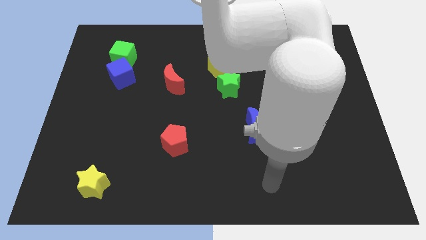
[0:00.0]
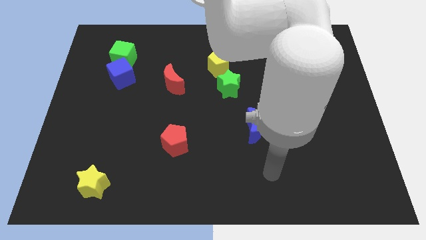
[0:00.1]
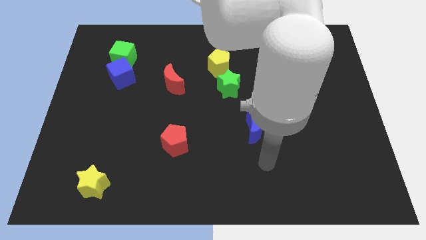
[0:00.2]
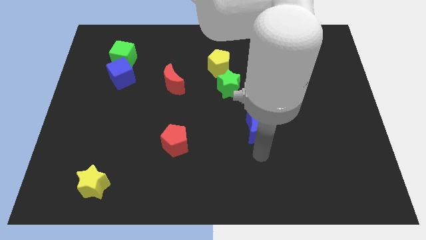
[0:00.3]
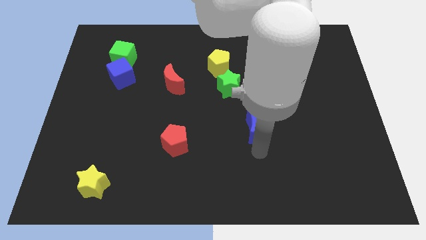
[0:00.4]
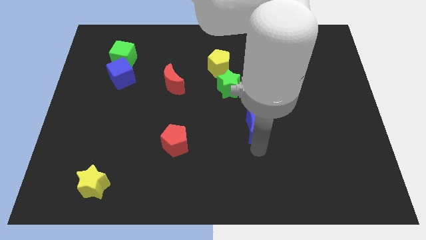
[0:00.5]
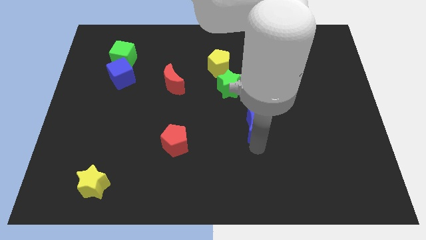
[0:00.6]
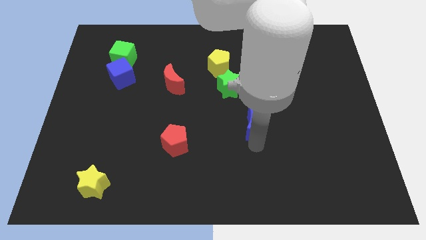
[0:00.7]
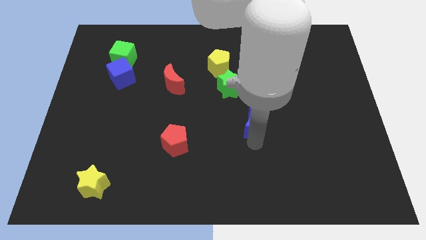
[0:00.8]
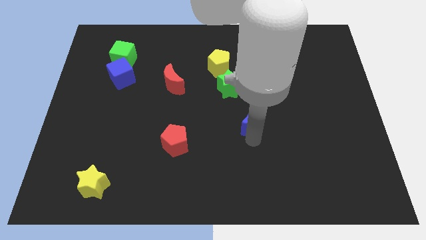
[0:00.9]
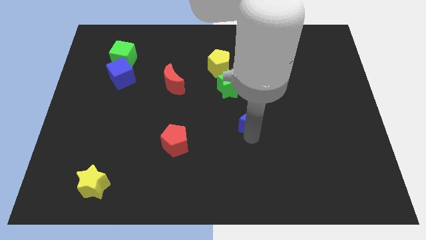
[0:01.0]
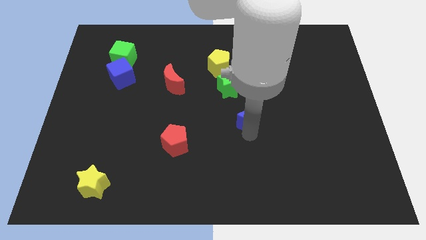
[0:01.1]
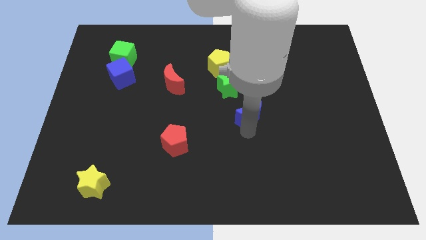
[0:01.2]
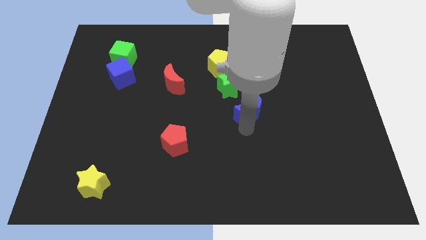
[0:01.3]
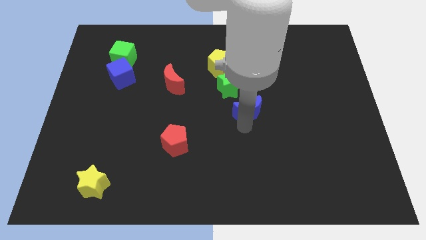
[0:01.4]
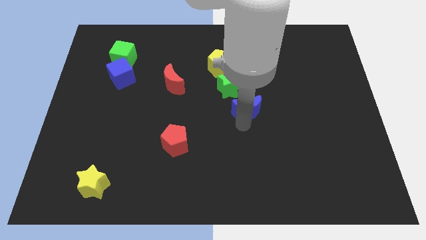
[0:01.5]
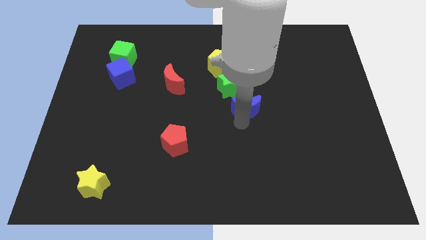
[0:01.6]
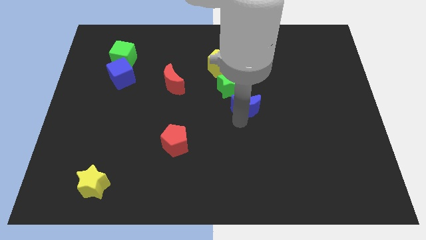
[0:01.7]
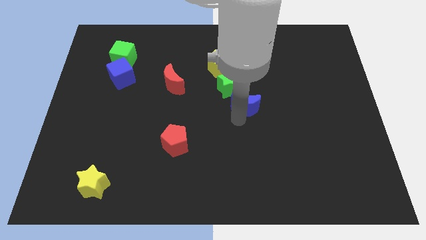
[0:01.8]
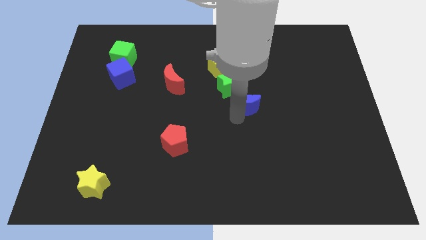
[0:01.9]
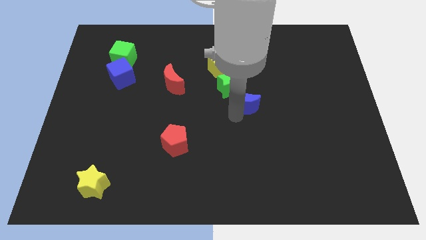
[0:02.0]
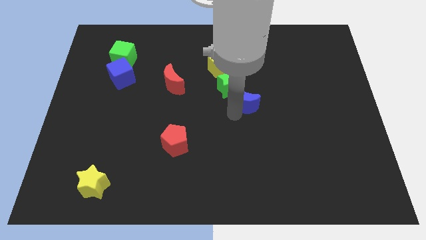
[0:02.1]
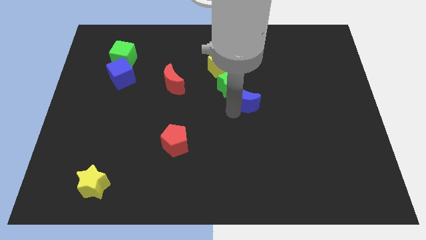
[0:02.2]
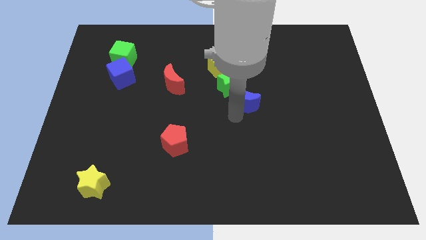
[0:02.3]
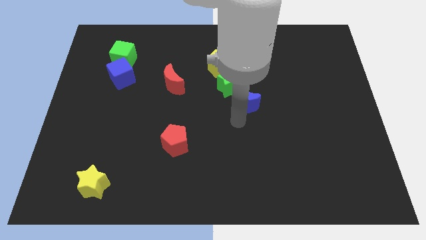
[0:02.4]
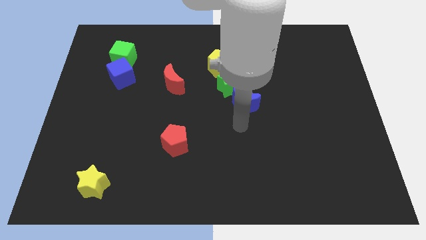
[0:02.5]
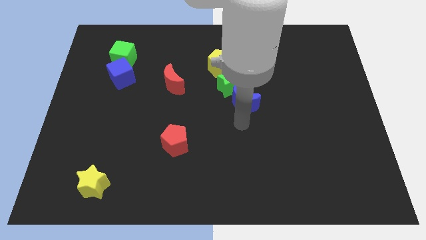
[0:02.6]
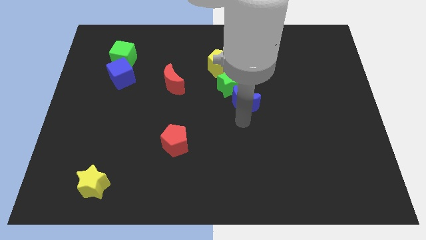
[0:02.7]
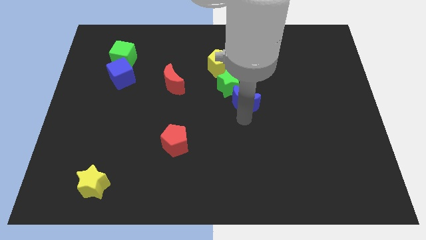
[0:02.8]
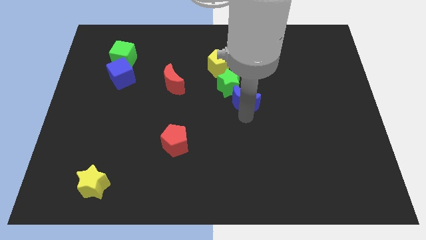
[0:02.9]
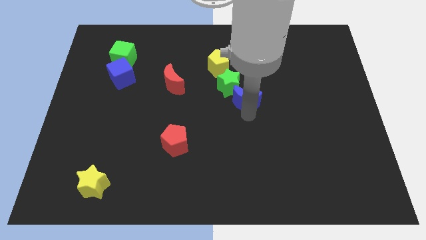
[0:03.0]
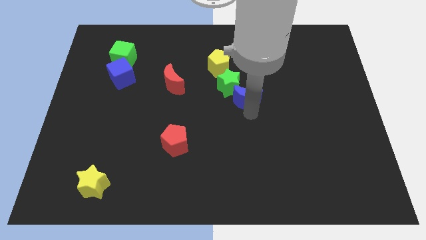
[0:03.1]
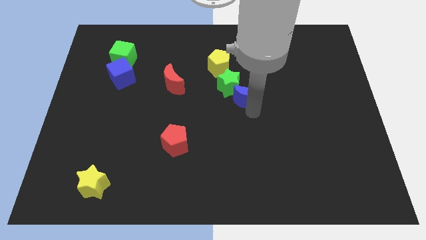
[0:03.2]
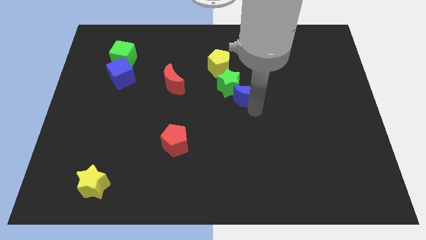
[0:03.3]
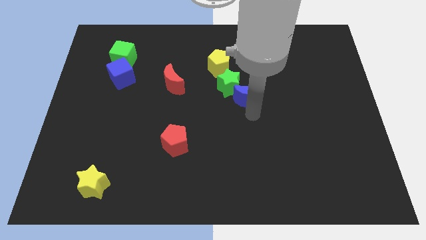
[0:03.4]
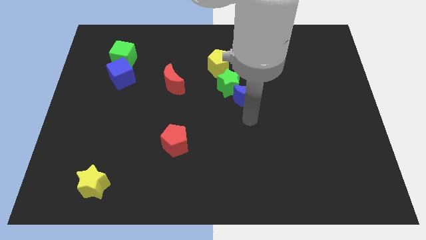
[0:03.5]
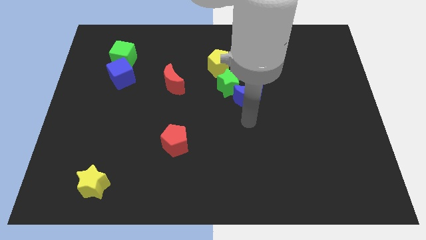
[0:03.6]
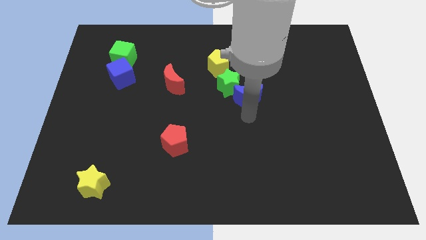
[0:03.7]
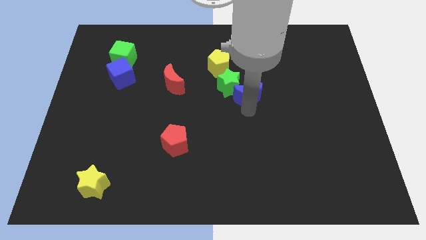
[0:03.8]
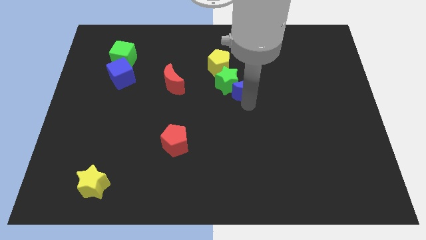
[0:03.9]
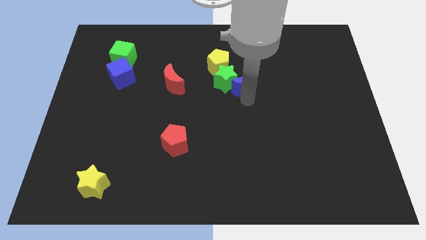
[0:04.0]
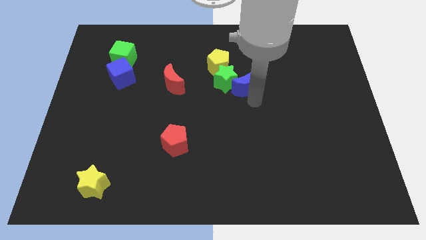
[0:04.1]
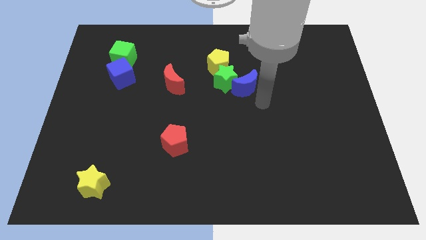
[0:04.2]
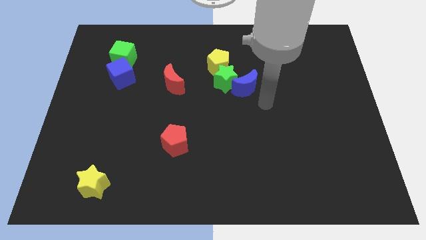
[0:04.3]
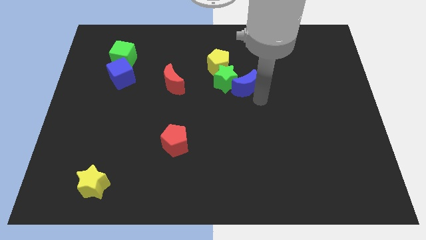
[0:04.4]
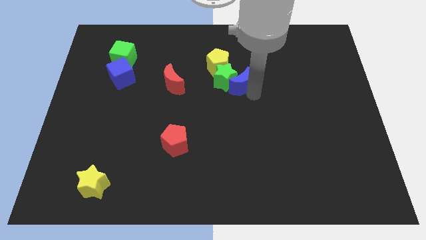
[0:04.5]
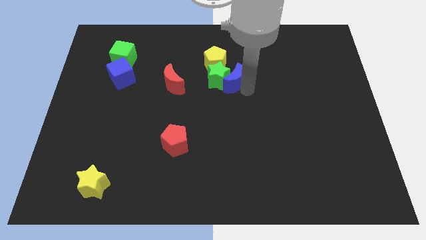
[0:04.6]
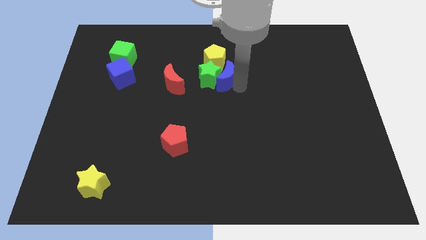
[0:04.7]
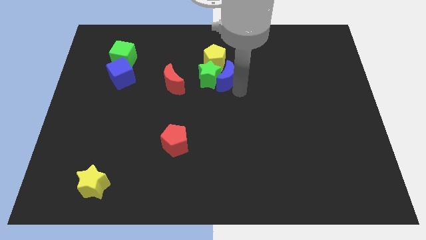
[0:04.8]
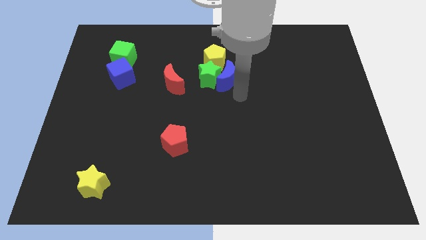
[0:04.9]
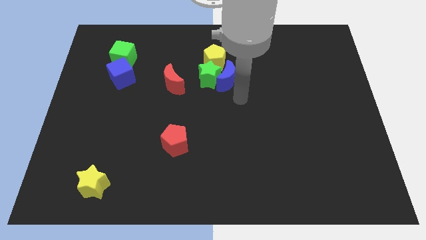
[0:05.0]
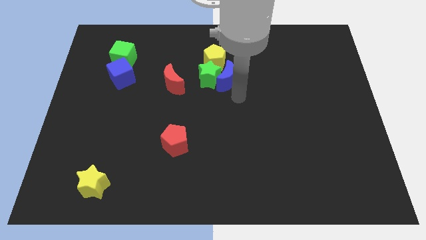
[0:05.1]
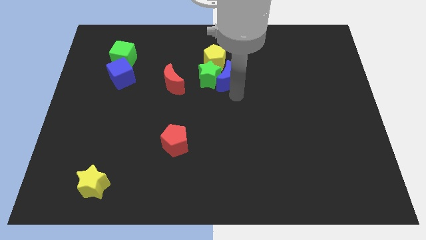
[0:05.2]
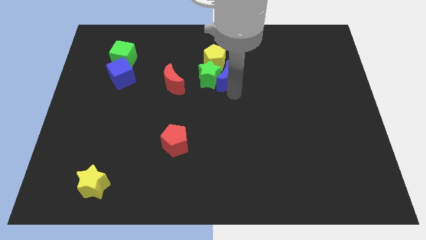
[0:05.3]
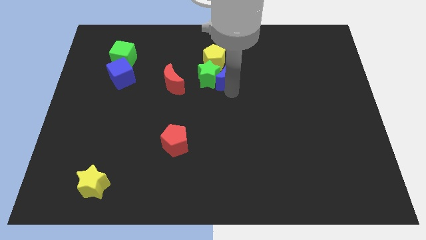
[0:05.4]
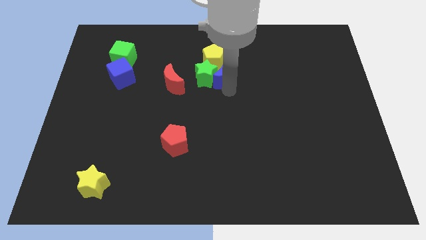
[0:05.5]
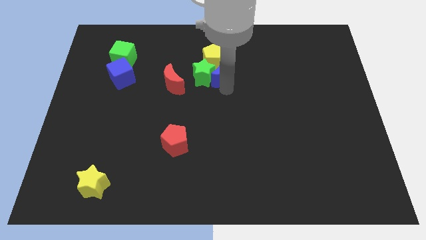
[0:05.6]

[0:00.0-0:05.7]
move the blue moon close to the yellow pentagon

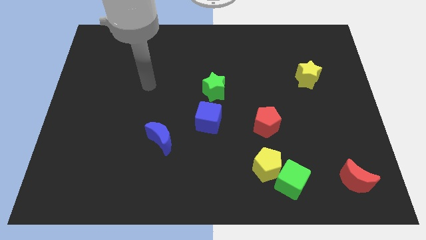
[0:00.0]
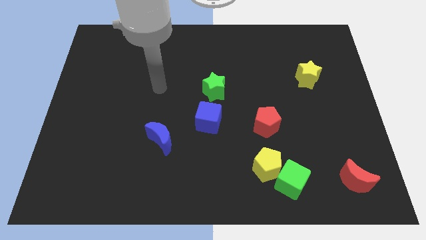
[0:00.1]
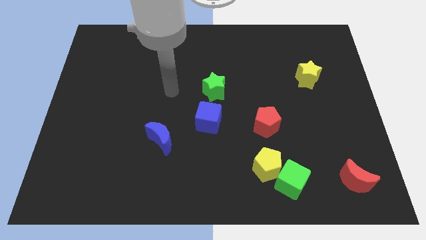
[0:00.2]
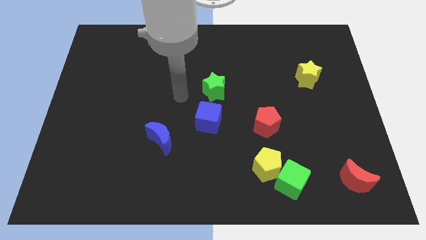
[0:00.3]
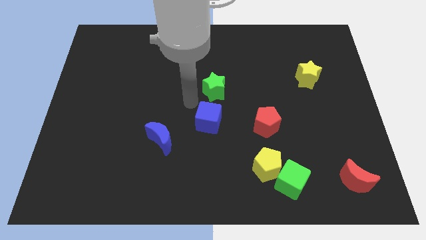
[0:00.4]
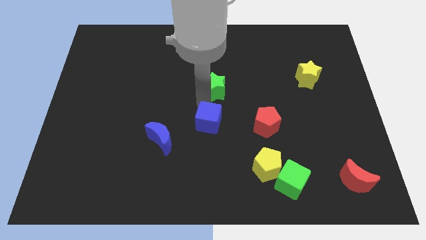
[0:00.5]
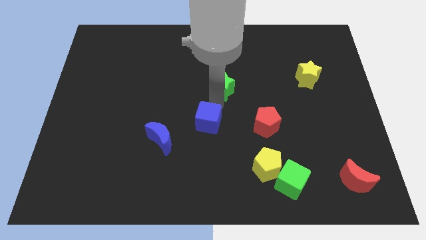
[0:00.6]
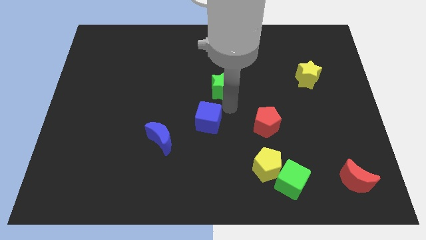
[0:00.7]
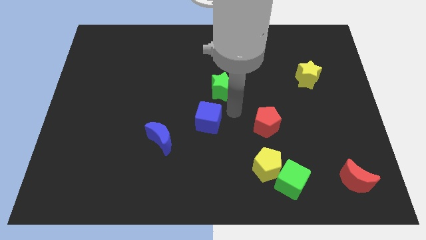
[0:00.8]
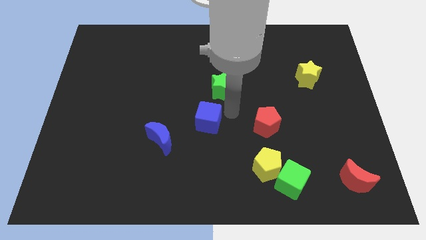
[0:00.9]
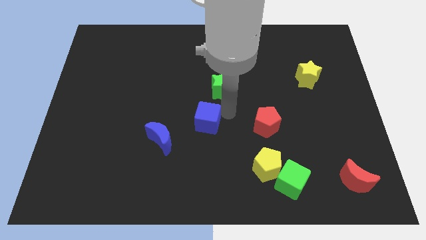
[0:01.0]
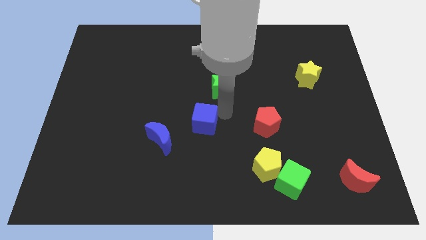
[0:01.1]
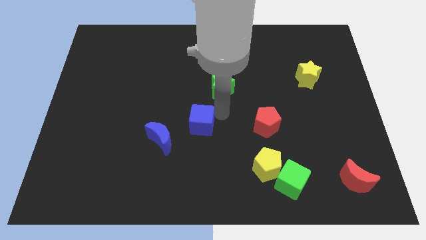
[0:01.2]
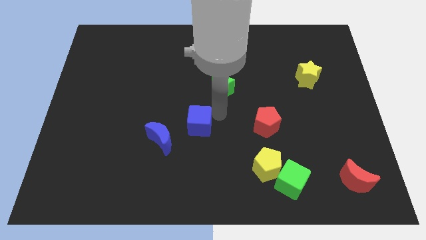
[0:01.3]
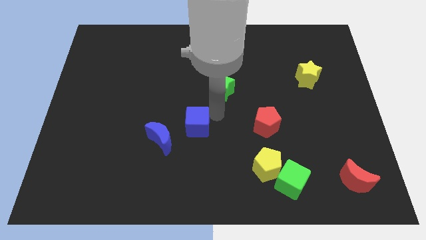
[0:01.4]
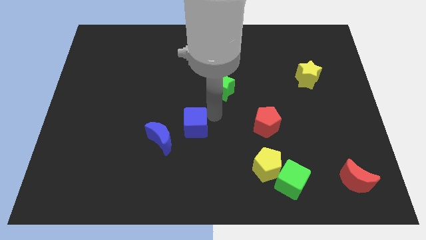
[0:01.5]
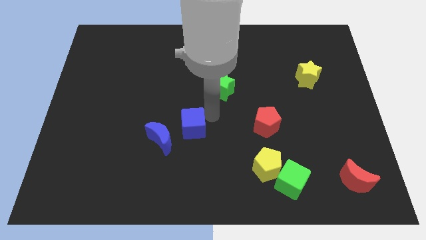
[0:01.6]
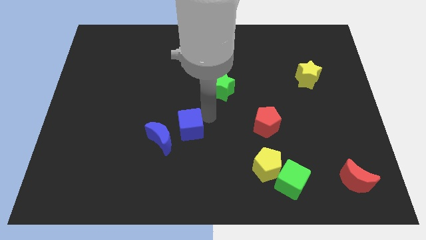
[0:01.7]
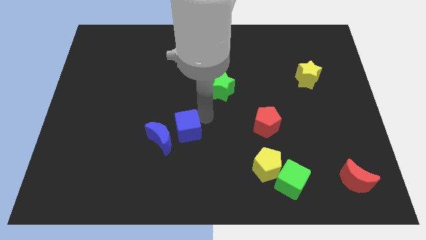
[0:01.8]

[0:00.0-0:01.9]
push the blue cube to the blue moon
